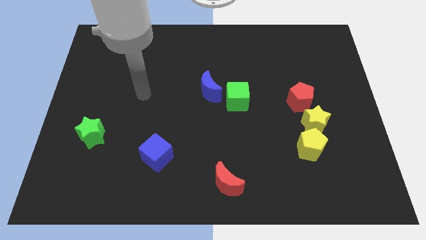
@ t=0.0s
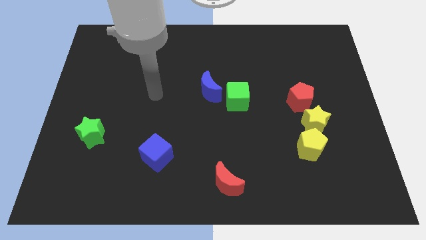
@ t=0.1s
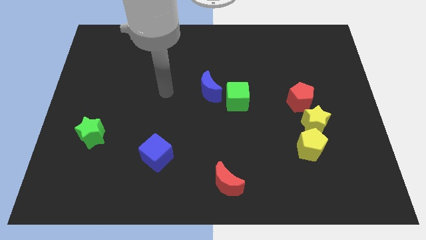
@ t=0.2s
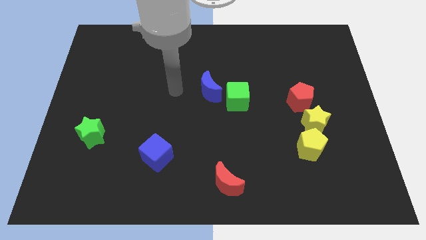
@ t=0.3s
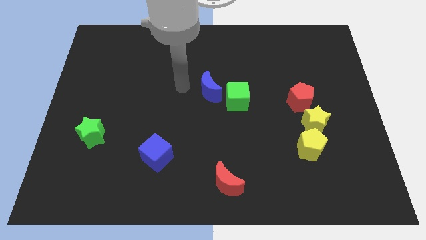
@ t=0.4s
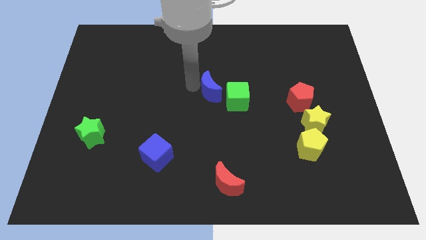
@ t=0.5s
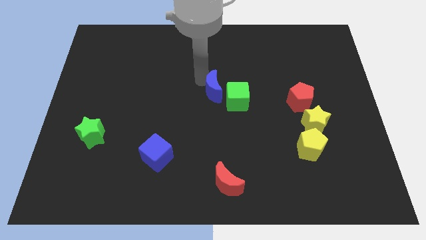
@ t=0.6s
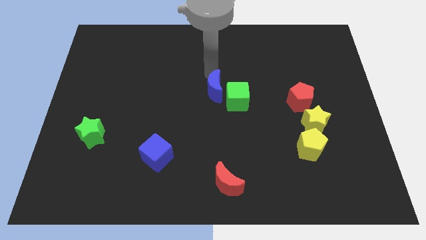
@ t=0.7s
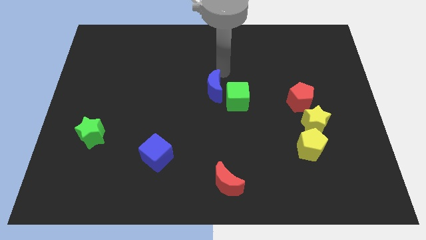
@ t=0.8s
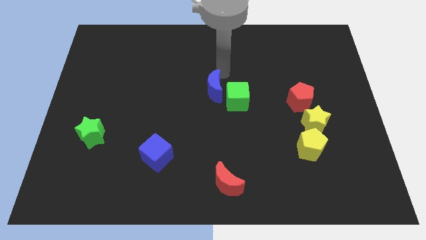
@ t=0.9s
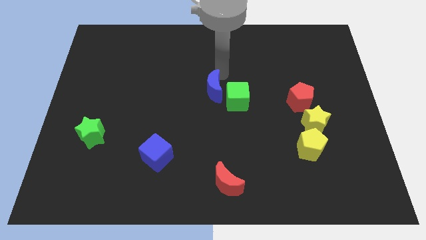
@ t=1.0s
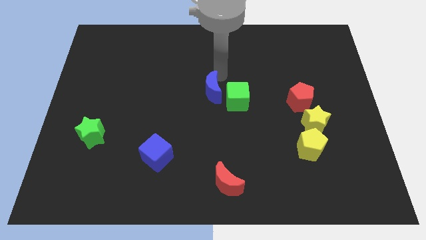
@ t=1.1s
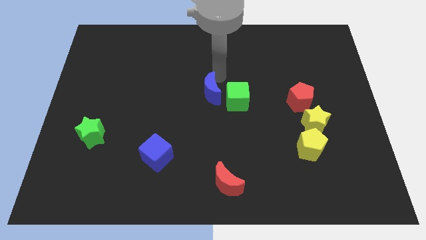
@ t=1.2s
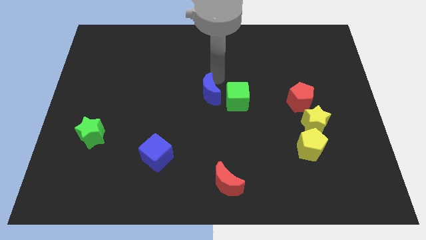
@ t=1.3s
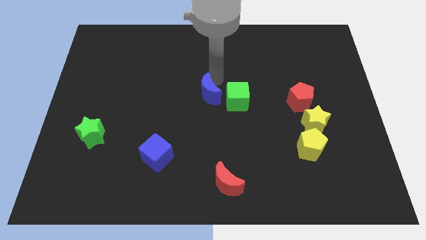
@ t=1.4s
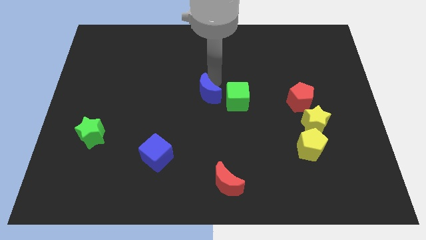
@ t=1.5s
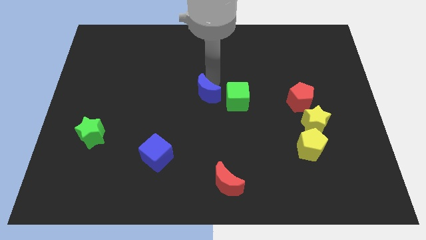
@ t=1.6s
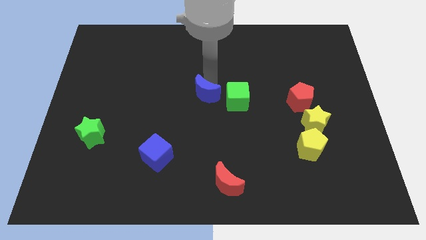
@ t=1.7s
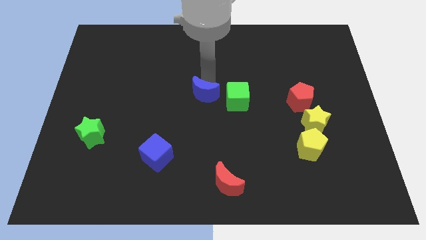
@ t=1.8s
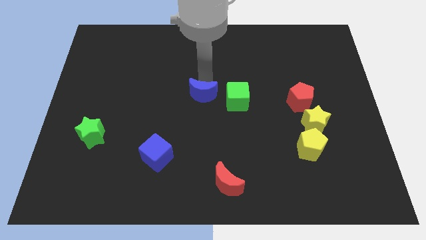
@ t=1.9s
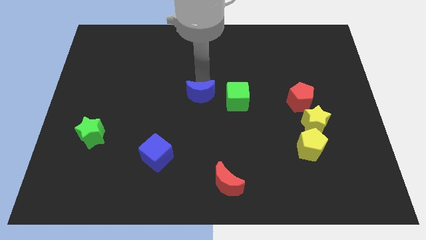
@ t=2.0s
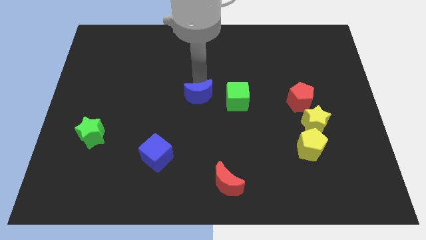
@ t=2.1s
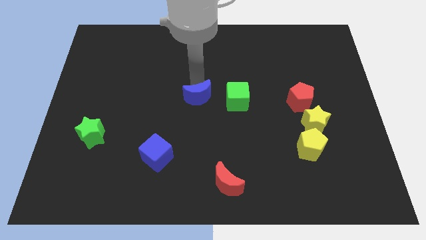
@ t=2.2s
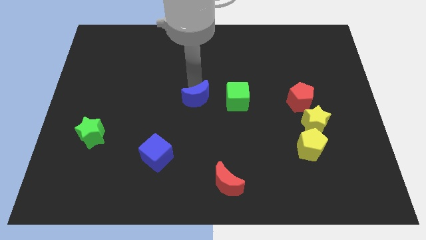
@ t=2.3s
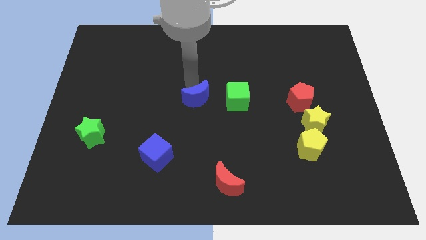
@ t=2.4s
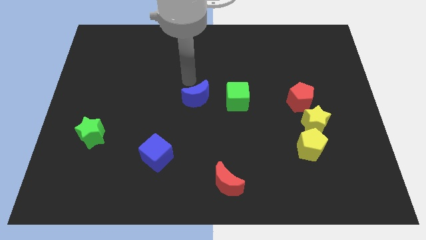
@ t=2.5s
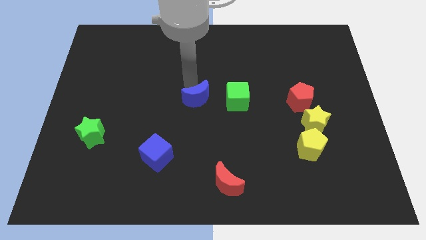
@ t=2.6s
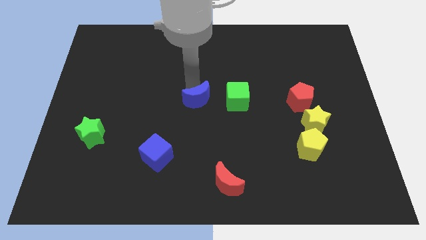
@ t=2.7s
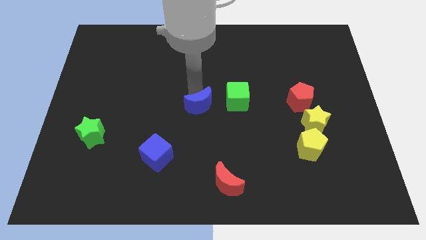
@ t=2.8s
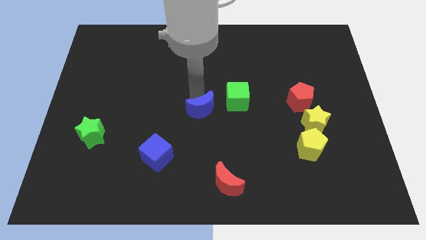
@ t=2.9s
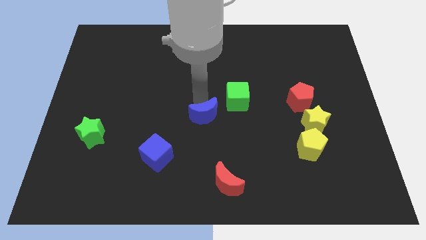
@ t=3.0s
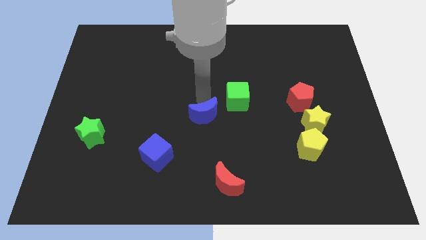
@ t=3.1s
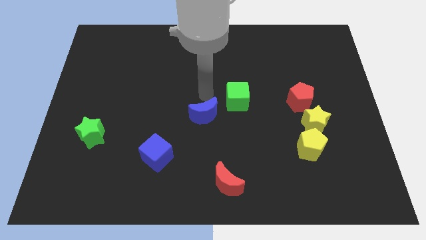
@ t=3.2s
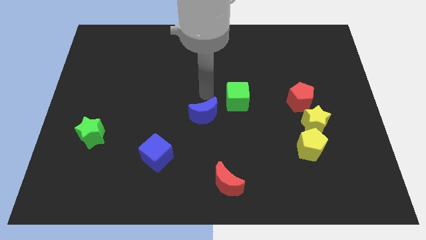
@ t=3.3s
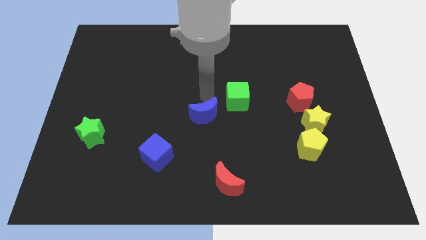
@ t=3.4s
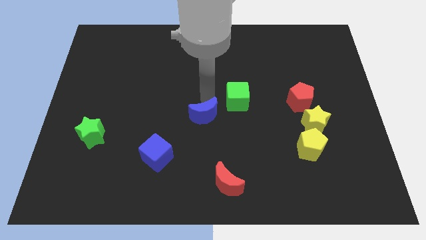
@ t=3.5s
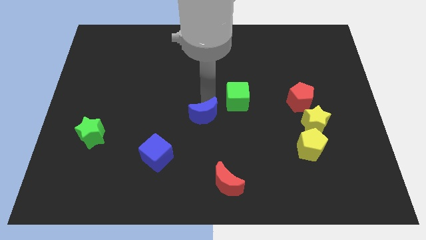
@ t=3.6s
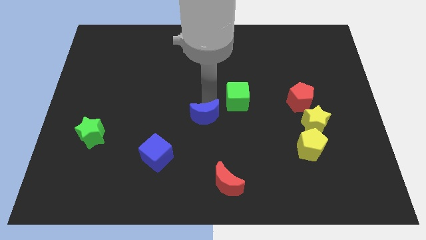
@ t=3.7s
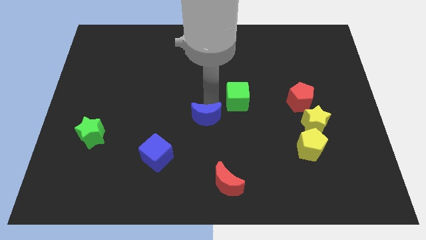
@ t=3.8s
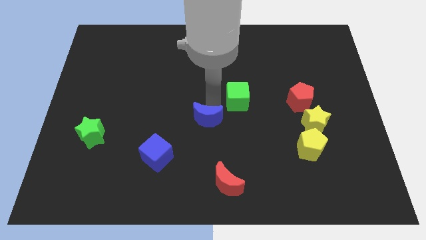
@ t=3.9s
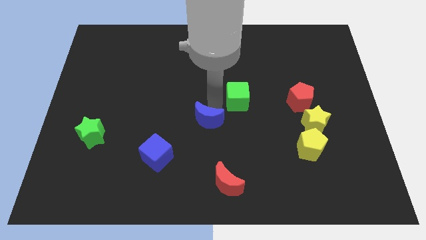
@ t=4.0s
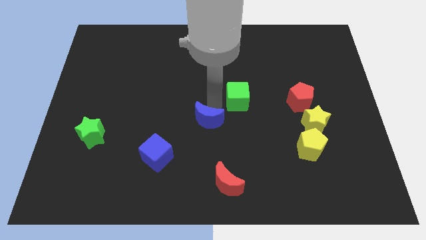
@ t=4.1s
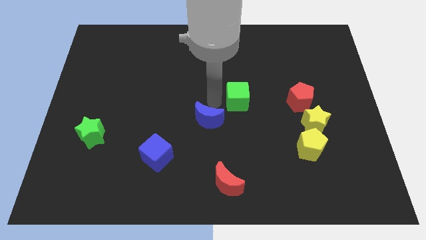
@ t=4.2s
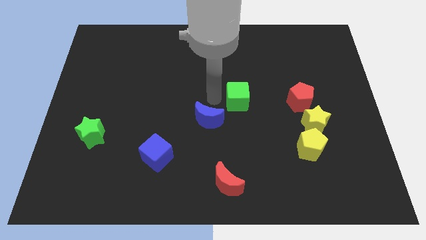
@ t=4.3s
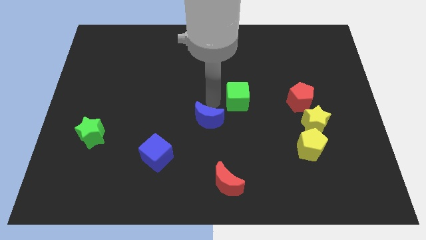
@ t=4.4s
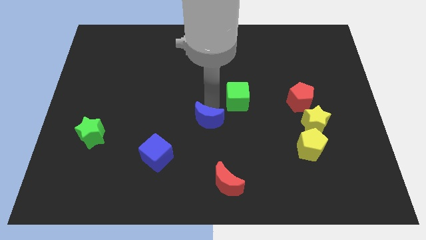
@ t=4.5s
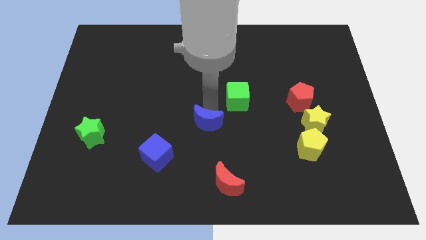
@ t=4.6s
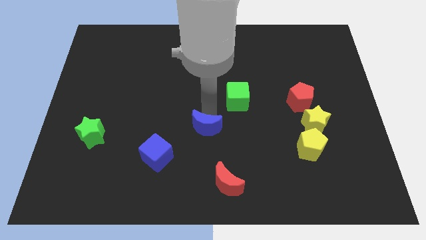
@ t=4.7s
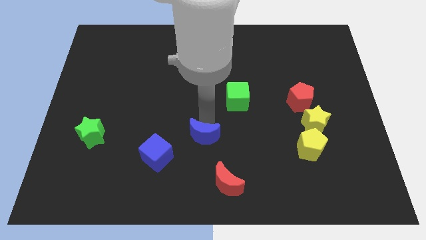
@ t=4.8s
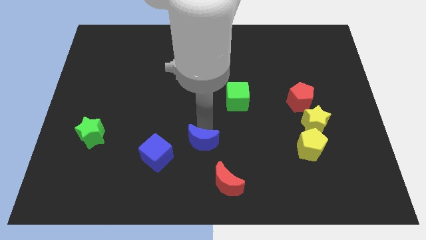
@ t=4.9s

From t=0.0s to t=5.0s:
put the blue moon to the top left of the red moon

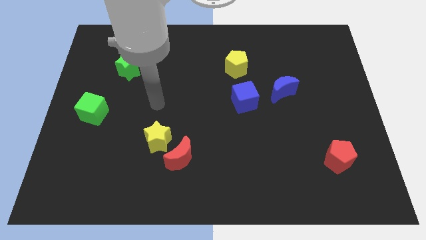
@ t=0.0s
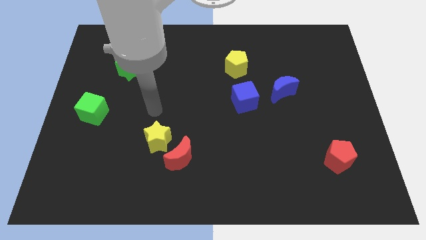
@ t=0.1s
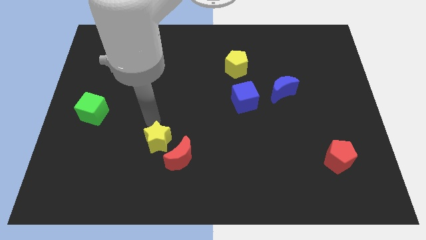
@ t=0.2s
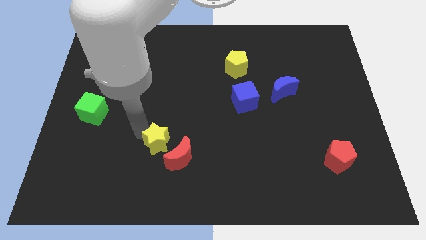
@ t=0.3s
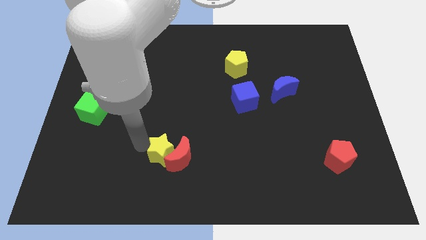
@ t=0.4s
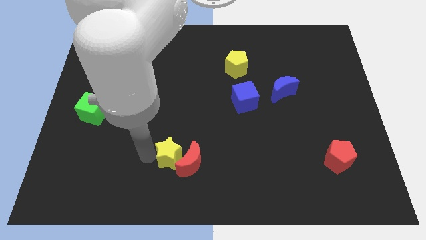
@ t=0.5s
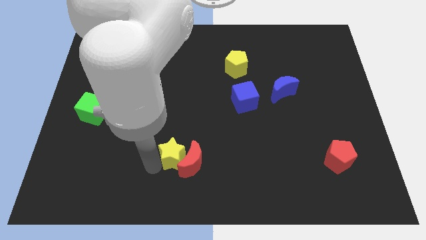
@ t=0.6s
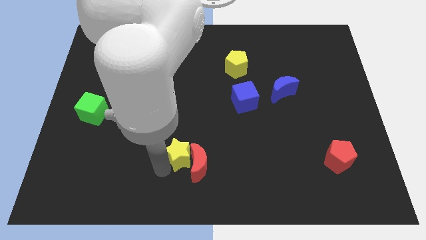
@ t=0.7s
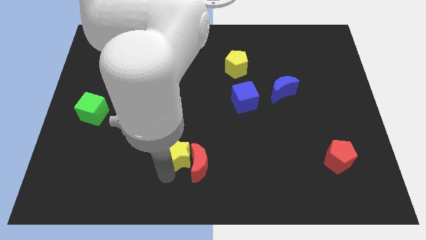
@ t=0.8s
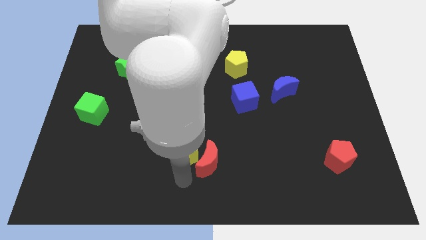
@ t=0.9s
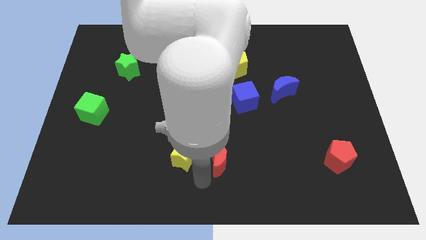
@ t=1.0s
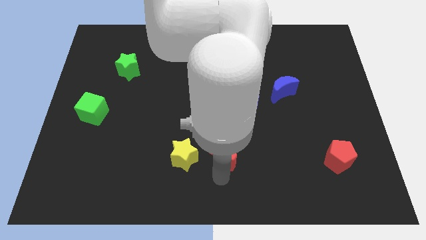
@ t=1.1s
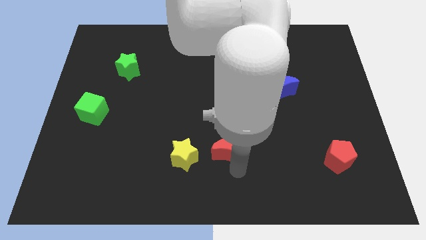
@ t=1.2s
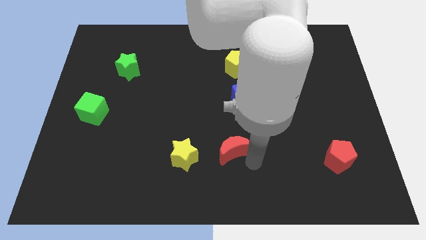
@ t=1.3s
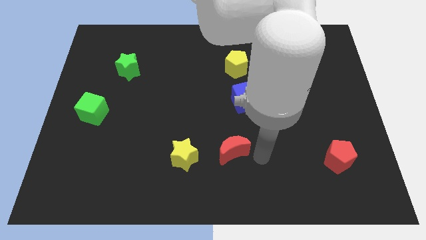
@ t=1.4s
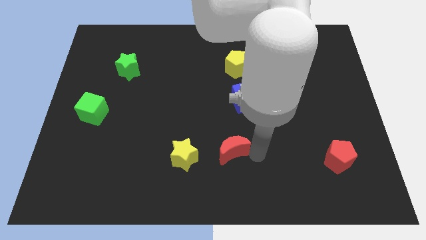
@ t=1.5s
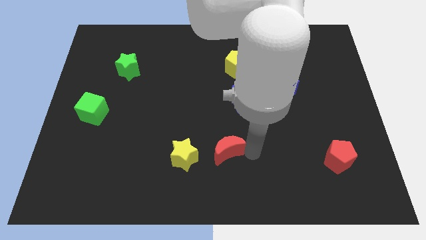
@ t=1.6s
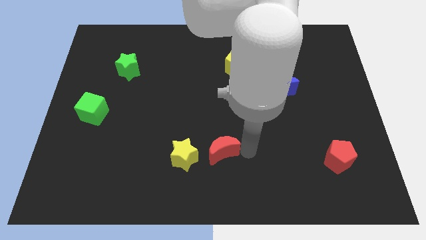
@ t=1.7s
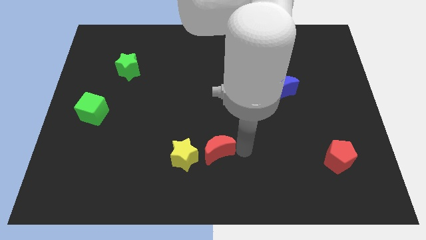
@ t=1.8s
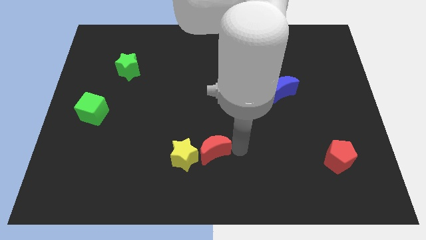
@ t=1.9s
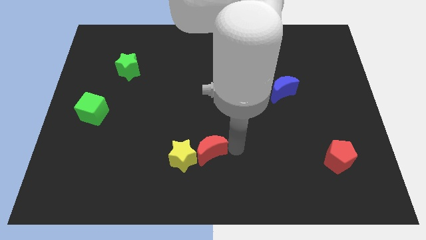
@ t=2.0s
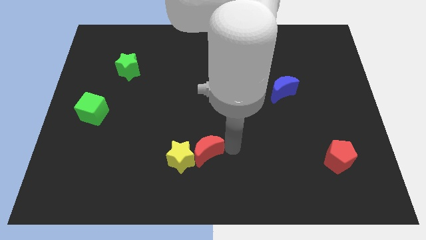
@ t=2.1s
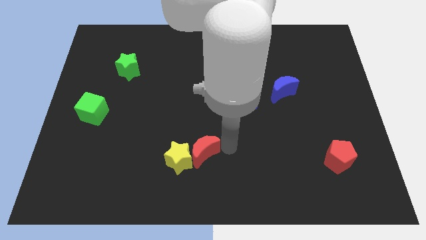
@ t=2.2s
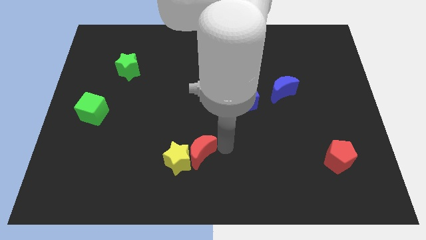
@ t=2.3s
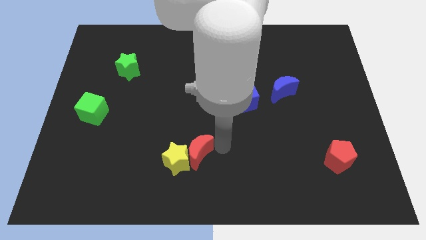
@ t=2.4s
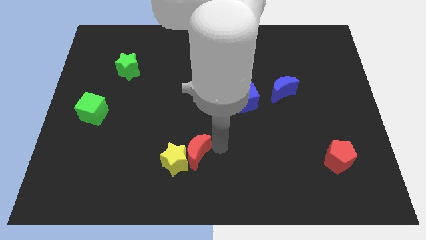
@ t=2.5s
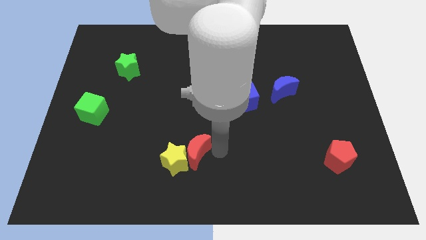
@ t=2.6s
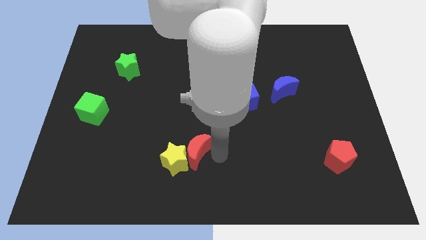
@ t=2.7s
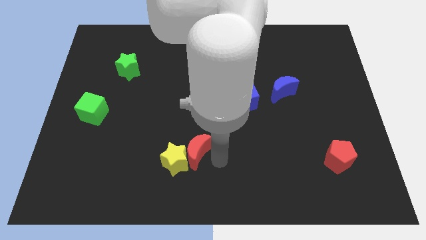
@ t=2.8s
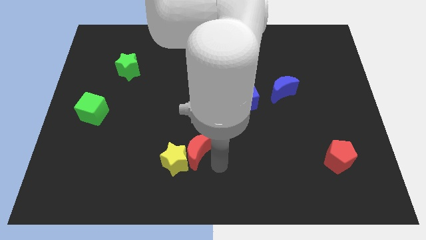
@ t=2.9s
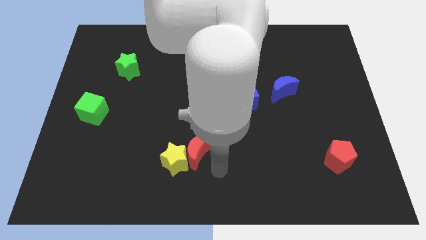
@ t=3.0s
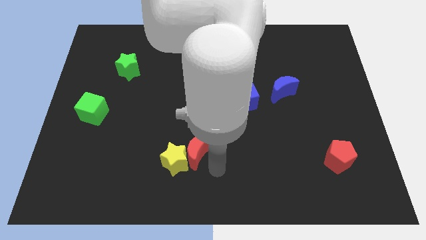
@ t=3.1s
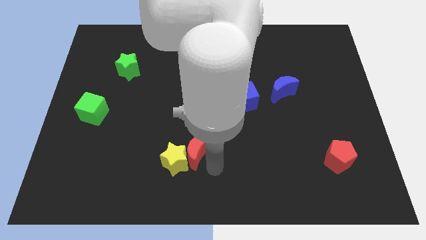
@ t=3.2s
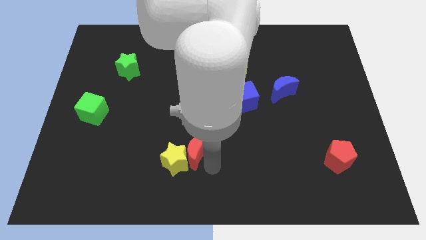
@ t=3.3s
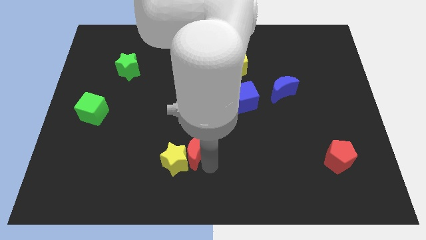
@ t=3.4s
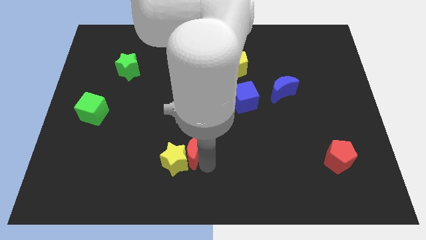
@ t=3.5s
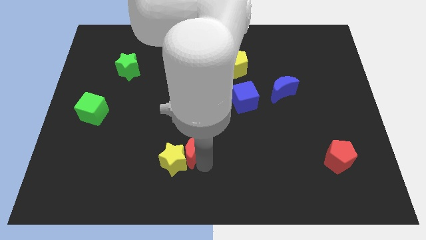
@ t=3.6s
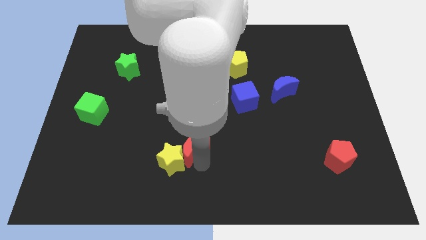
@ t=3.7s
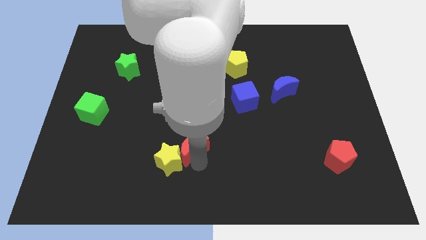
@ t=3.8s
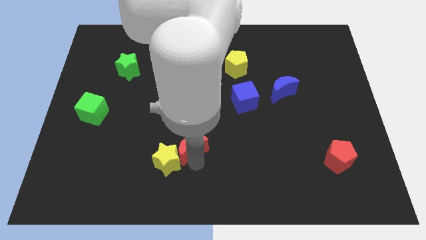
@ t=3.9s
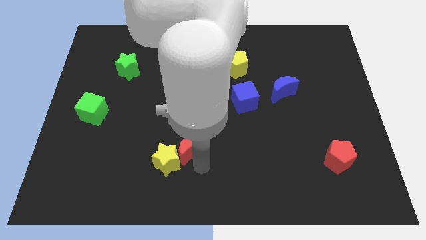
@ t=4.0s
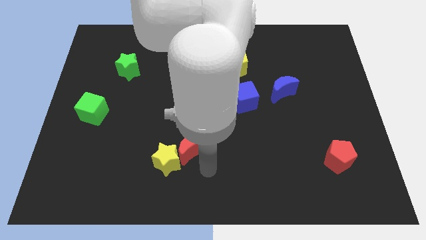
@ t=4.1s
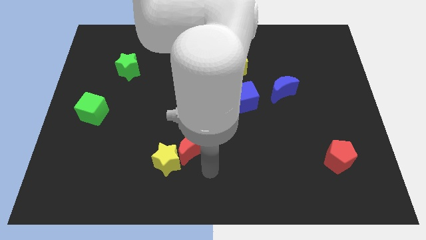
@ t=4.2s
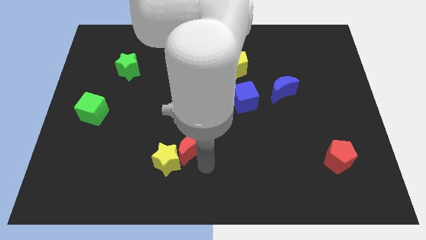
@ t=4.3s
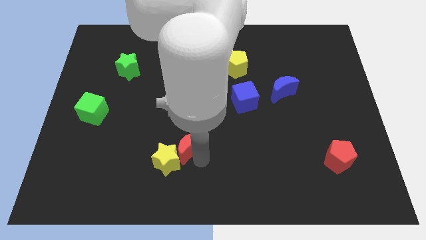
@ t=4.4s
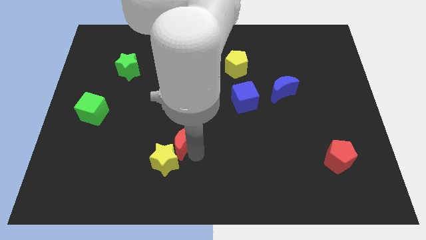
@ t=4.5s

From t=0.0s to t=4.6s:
slide the red moon to the top side of the yellow star
